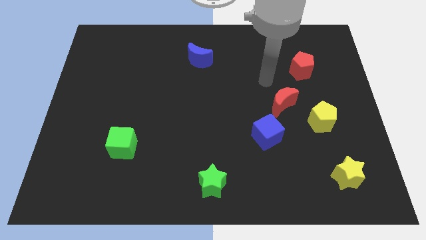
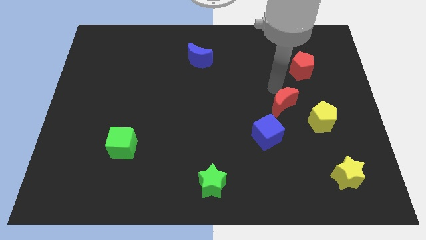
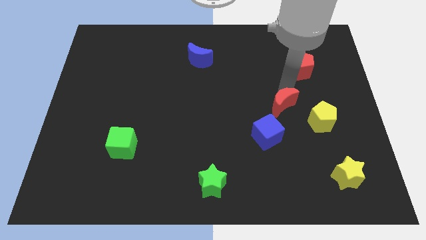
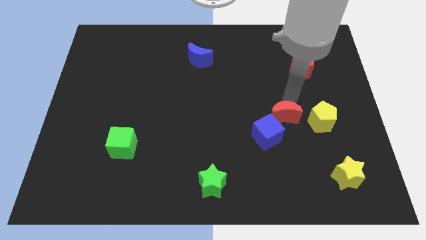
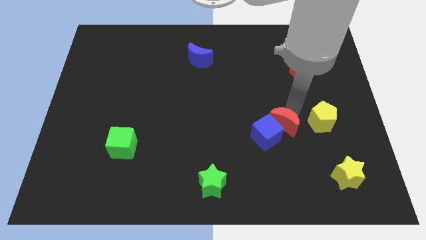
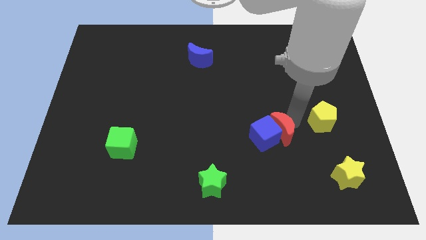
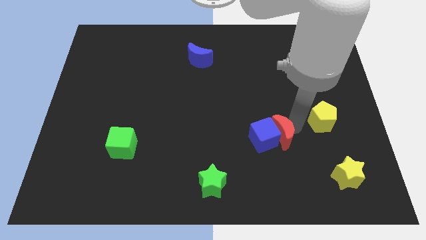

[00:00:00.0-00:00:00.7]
pull the yellow pentagon apart from the red moon

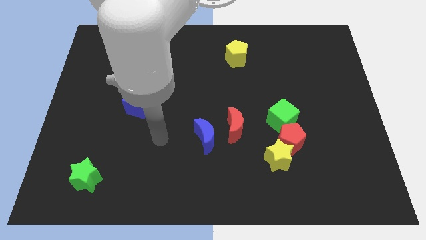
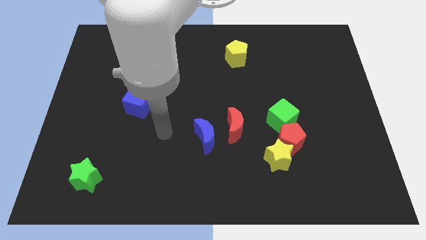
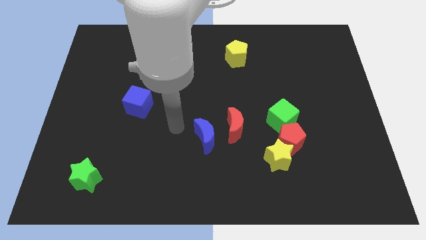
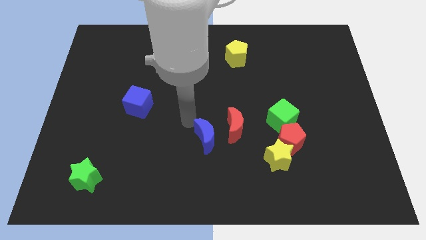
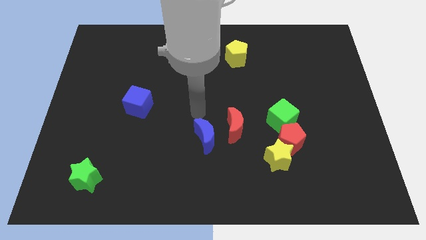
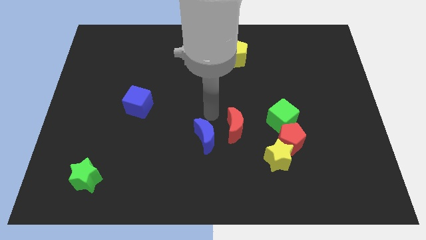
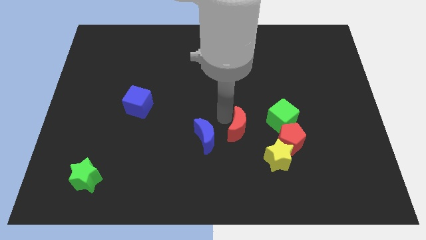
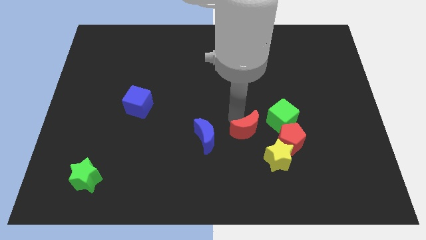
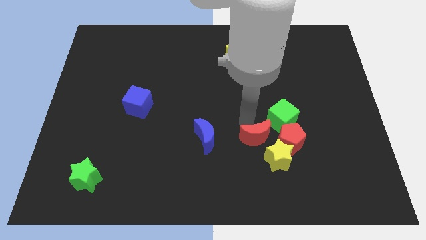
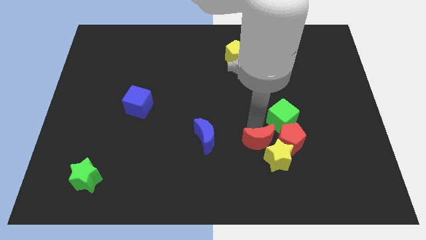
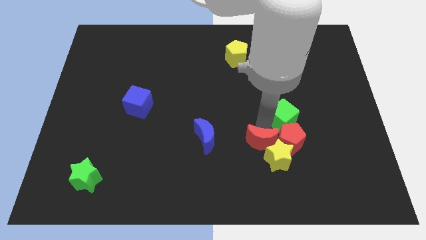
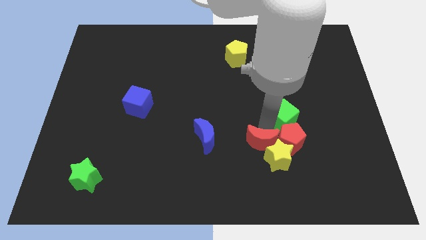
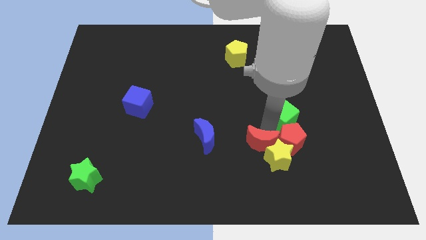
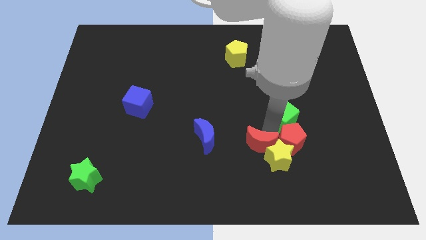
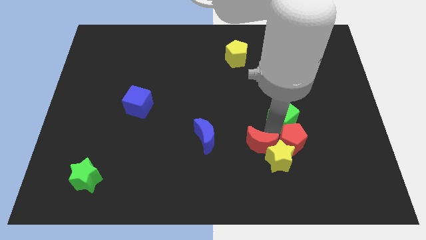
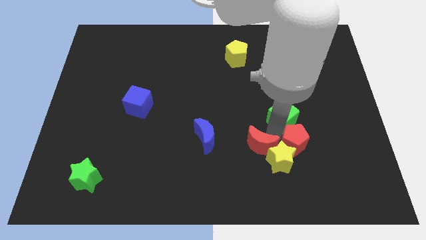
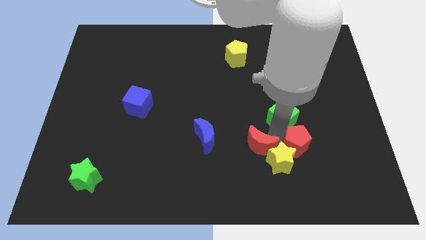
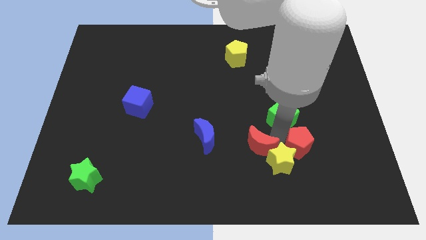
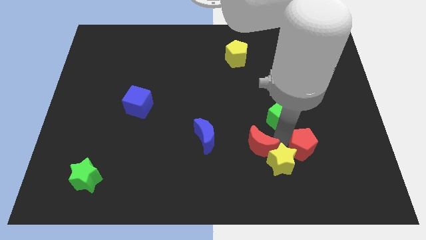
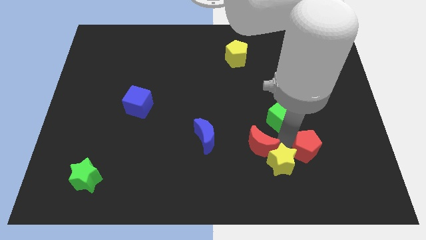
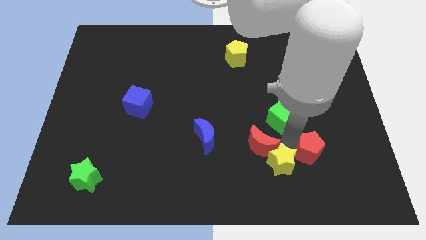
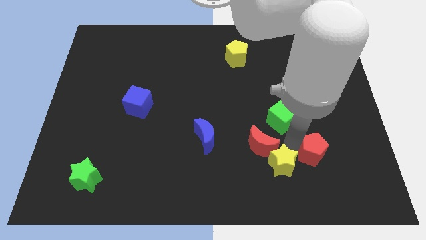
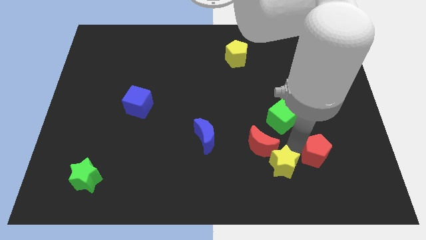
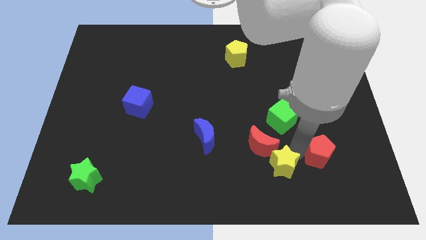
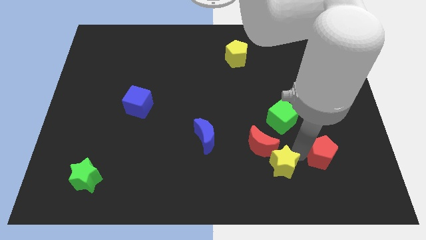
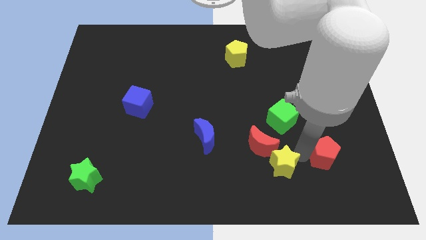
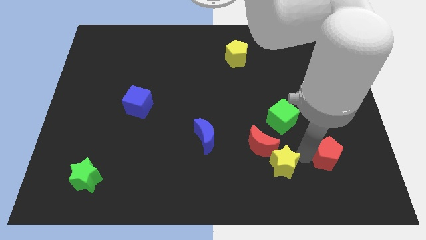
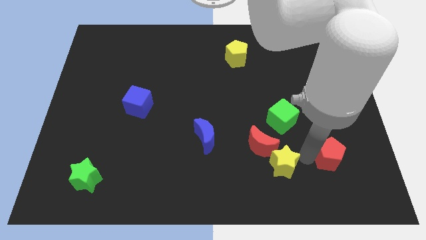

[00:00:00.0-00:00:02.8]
pull the red pentagon apart from the yellow star and green cube

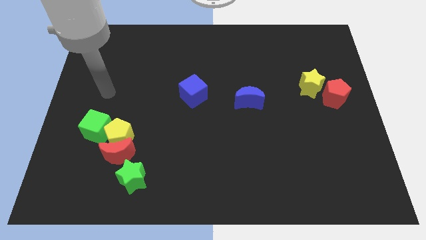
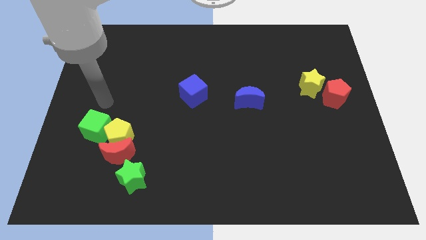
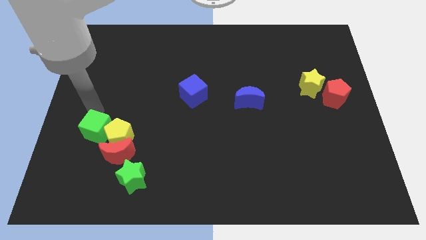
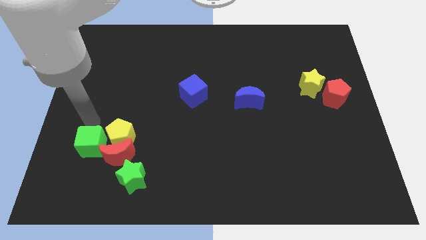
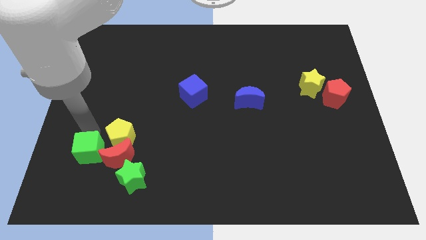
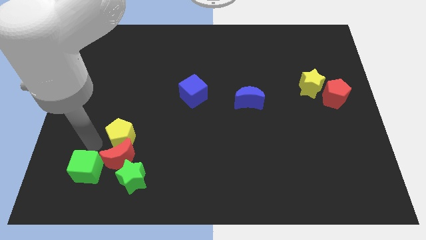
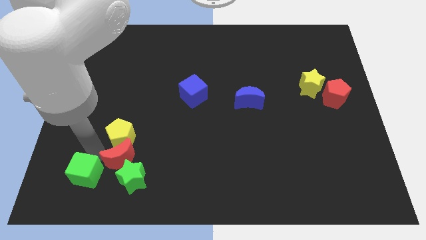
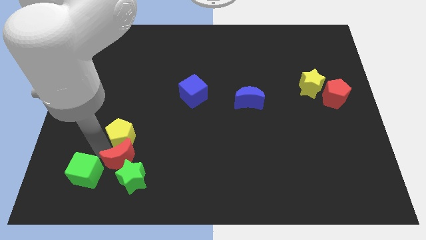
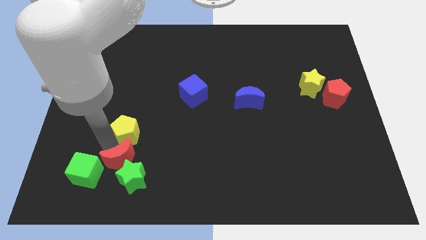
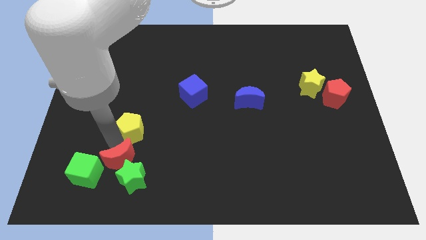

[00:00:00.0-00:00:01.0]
separate the yellow pentagon from the red moon and green cube

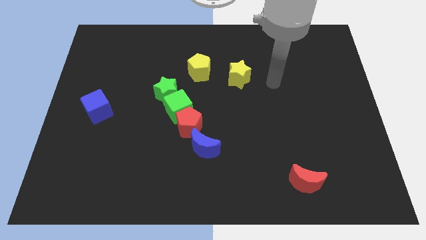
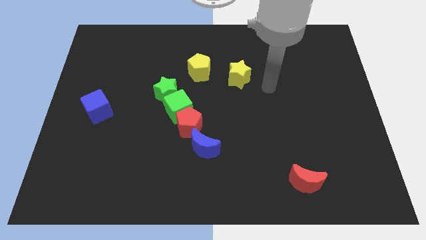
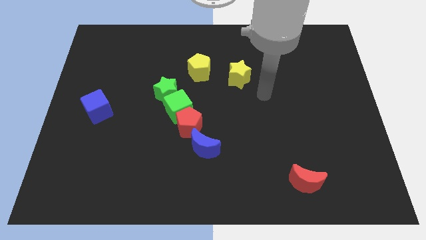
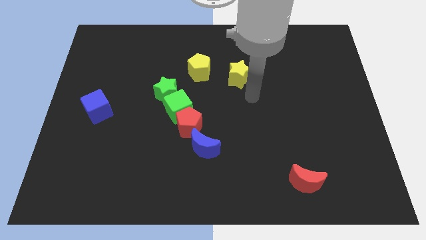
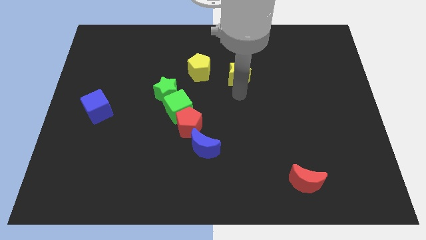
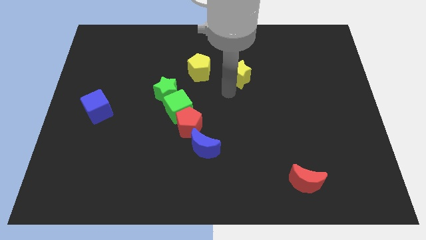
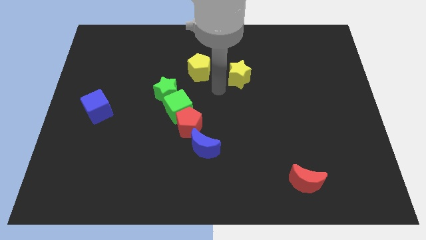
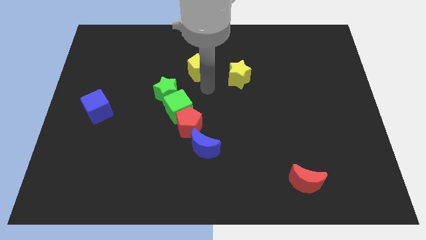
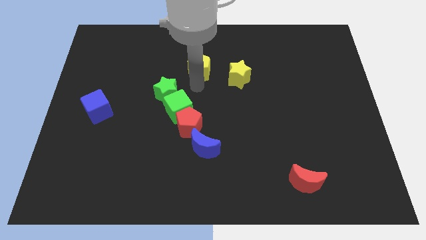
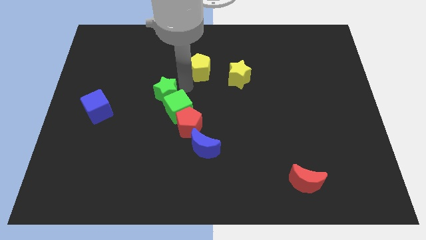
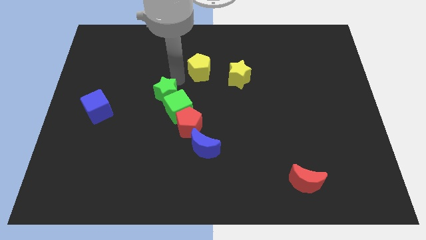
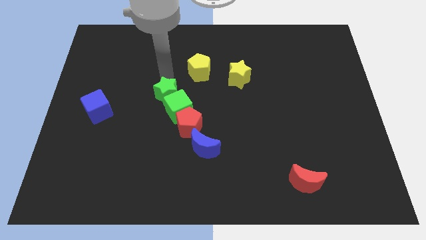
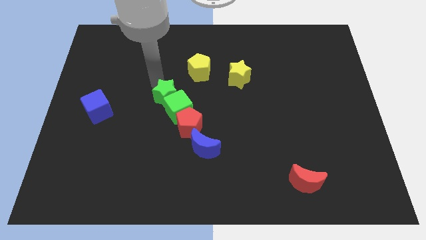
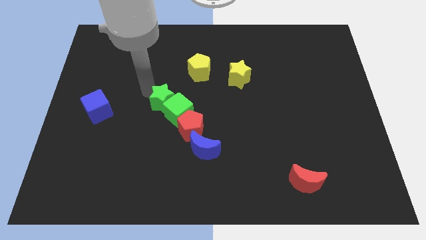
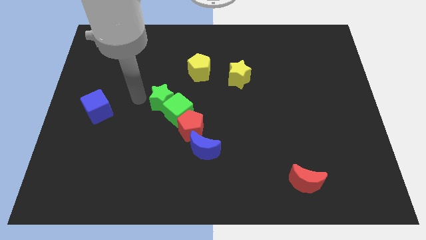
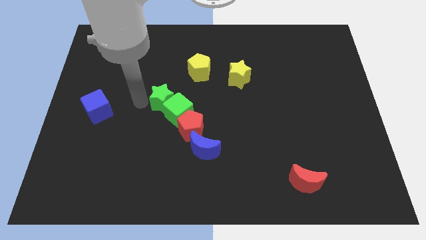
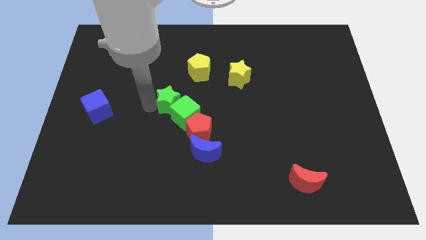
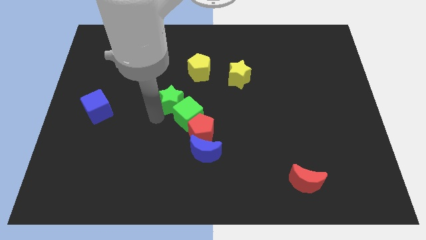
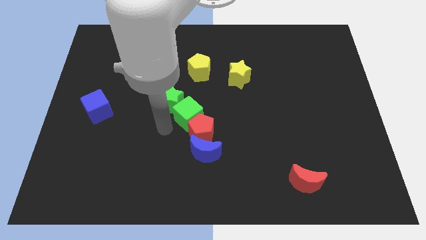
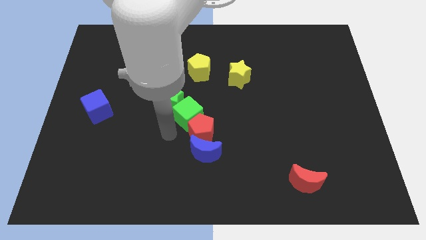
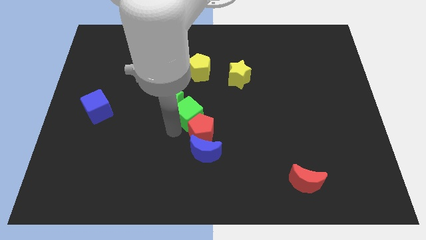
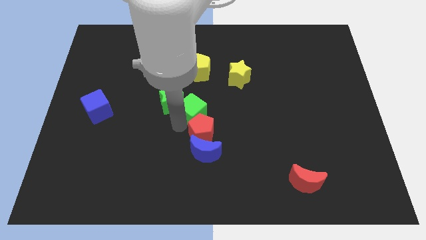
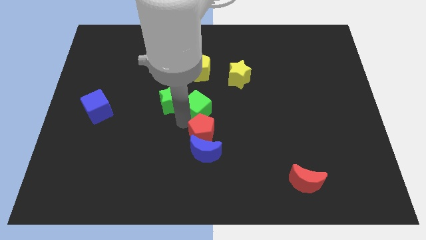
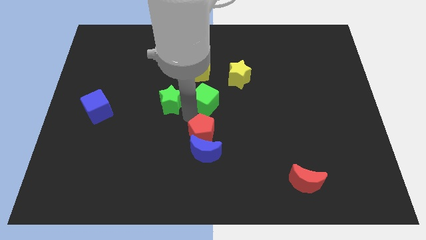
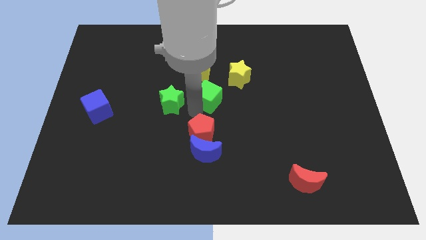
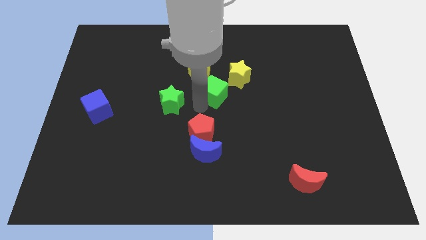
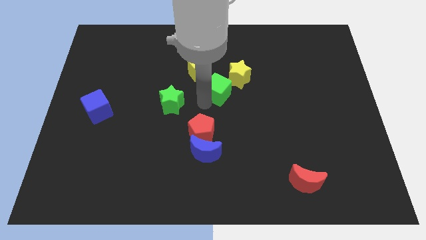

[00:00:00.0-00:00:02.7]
move the green cube away from the red pentagon and green star

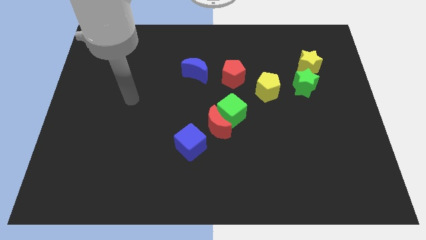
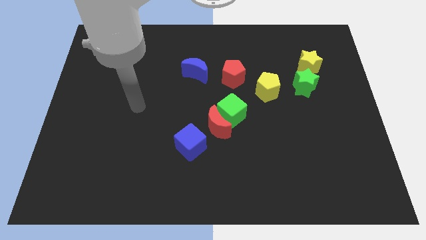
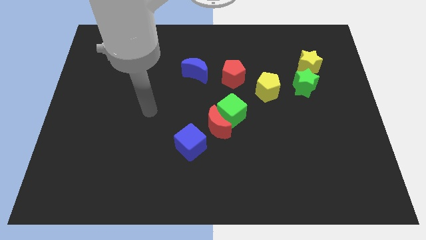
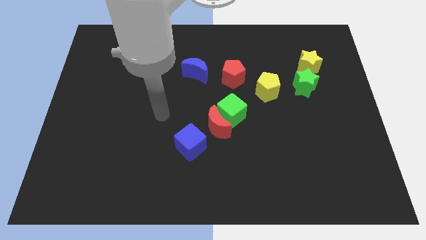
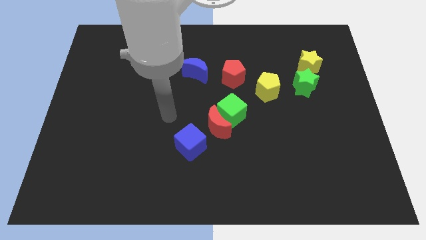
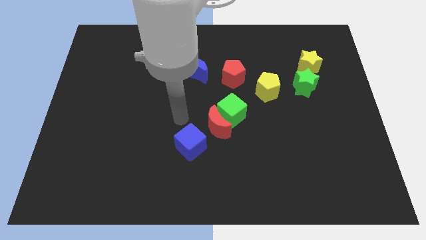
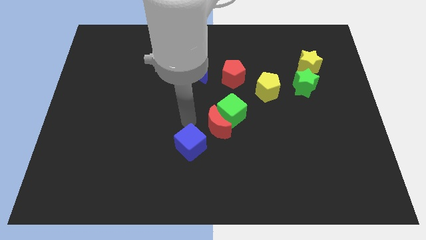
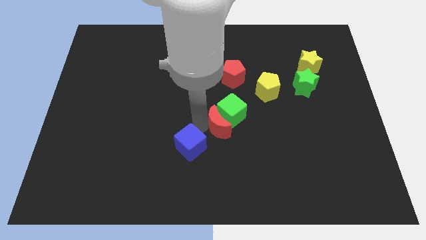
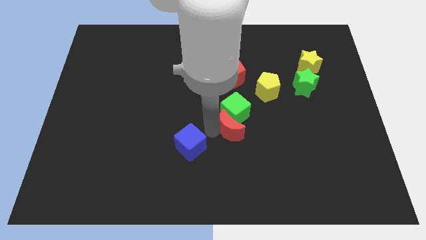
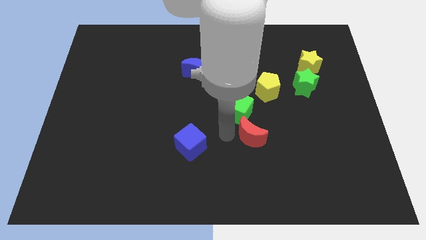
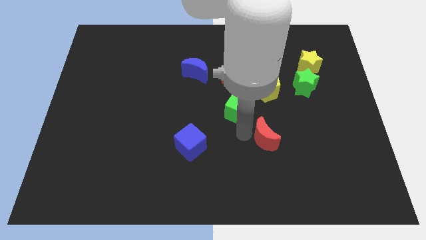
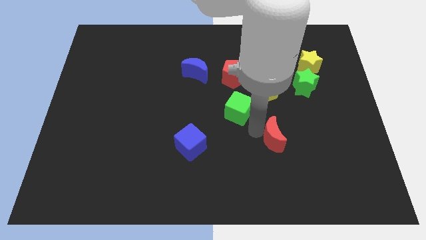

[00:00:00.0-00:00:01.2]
separate the green cube from the red moon

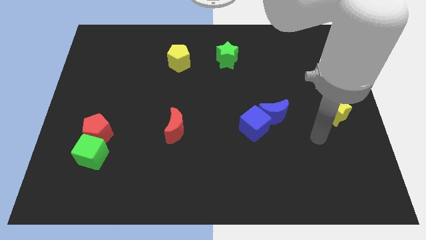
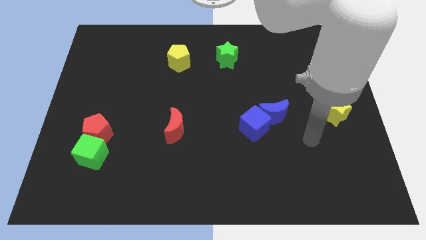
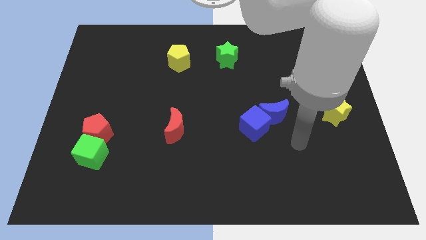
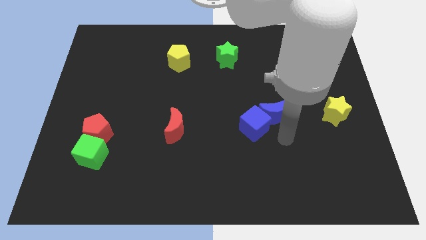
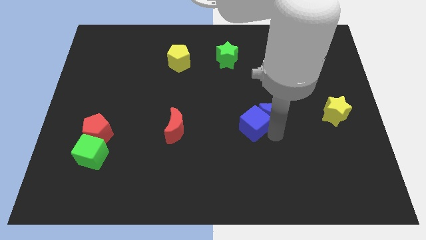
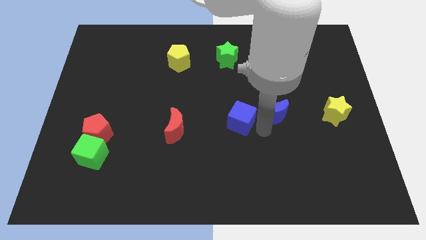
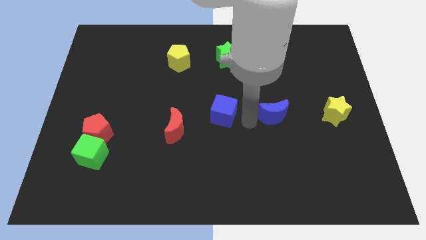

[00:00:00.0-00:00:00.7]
move the blue moon away from the blue cube
